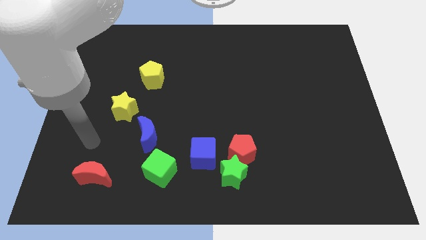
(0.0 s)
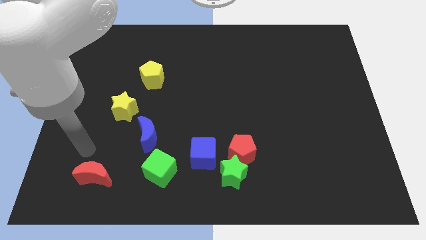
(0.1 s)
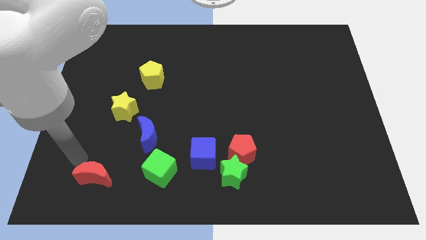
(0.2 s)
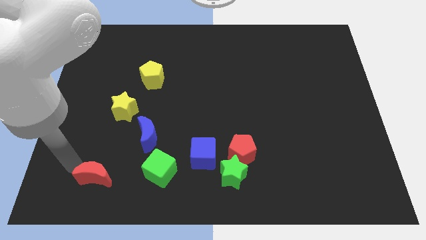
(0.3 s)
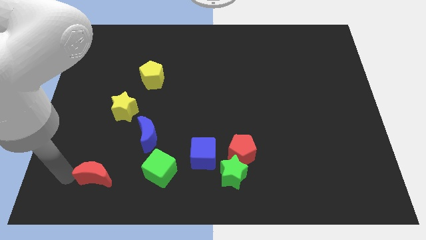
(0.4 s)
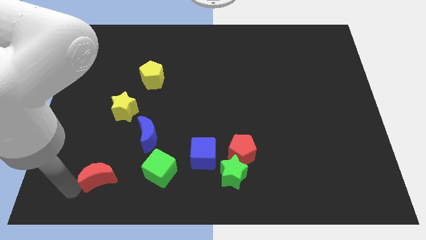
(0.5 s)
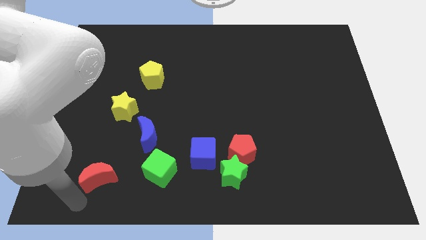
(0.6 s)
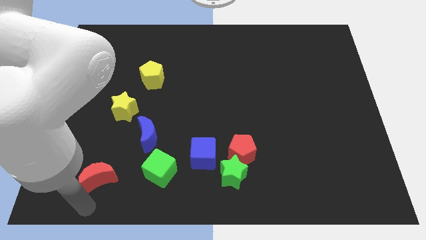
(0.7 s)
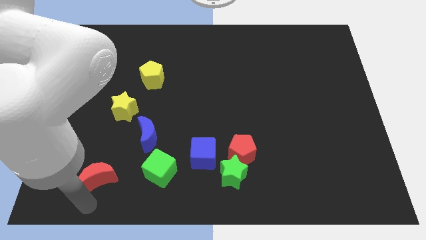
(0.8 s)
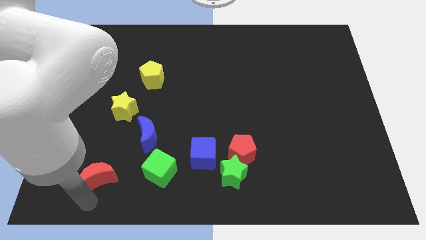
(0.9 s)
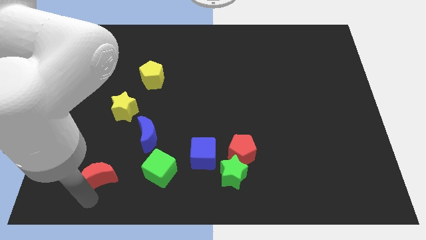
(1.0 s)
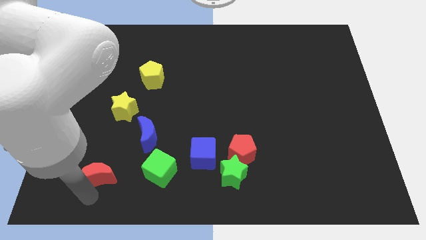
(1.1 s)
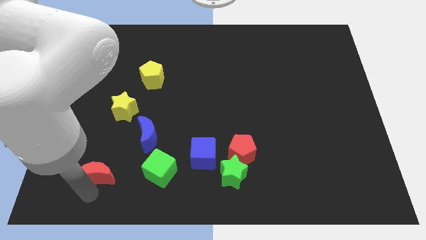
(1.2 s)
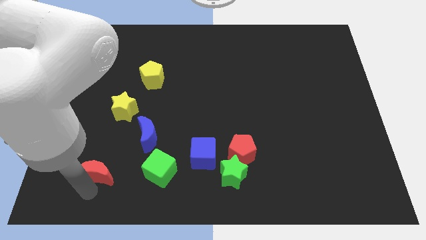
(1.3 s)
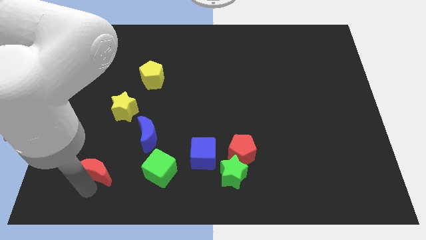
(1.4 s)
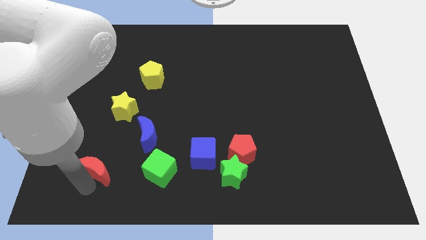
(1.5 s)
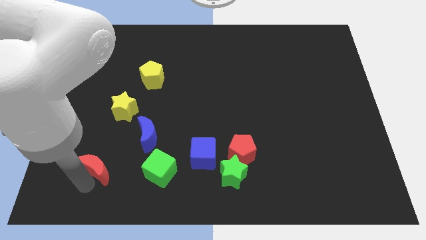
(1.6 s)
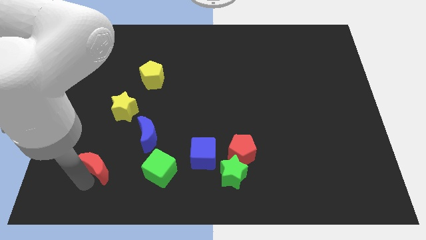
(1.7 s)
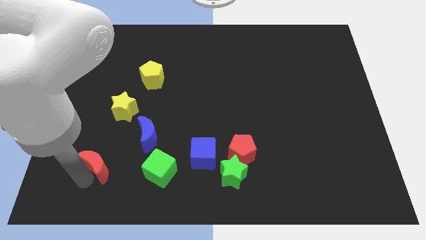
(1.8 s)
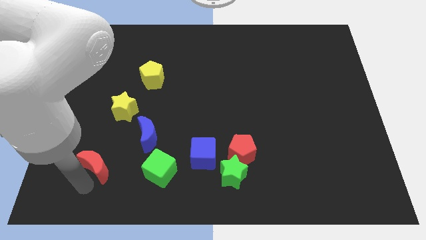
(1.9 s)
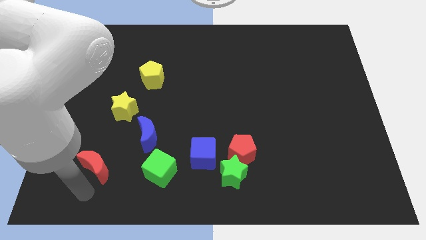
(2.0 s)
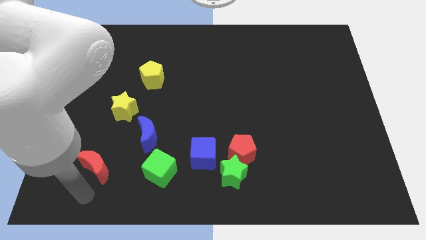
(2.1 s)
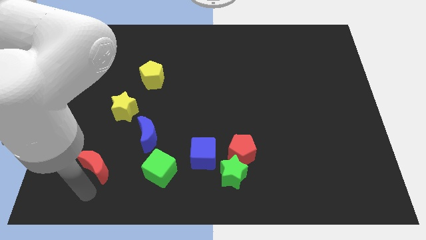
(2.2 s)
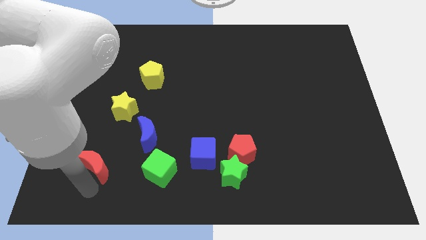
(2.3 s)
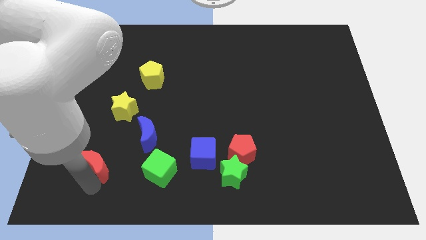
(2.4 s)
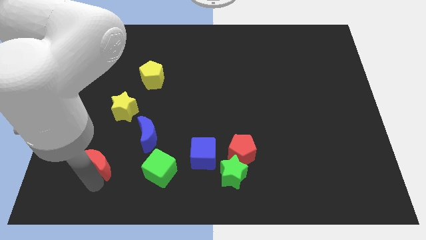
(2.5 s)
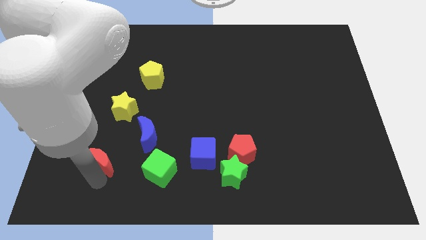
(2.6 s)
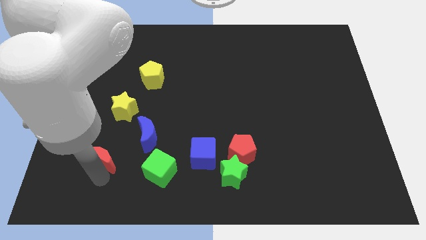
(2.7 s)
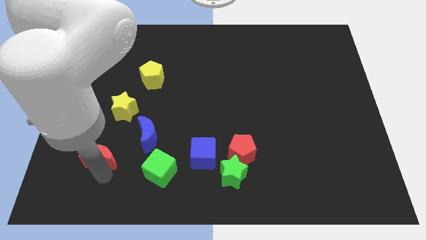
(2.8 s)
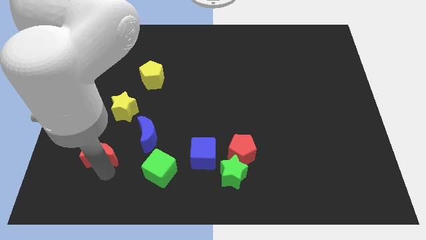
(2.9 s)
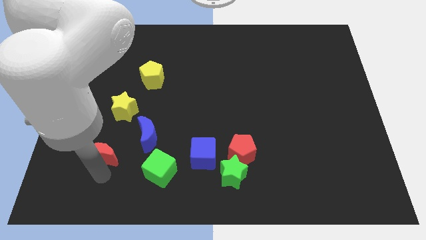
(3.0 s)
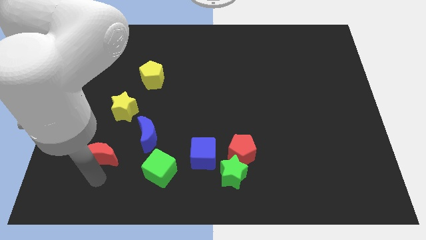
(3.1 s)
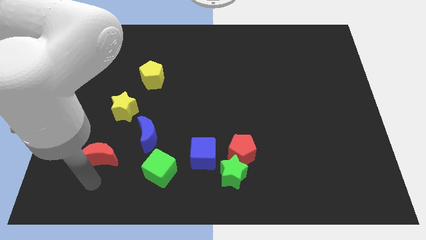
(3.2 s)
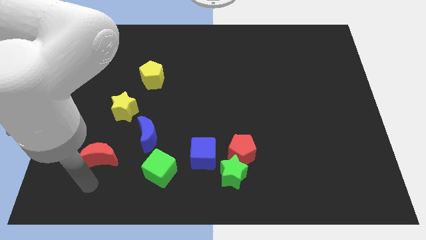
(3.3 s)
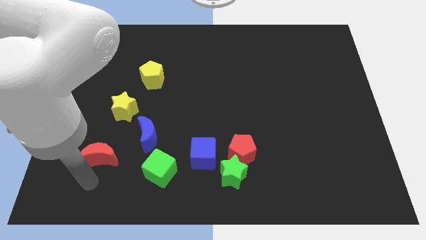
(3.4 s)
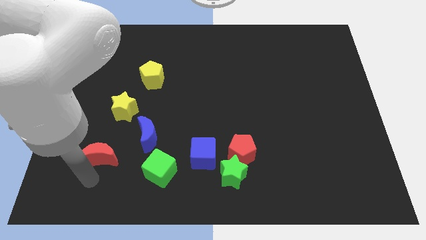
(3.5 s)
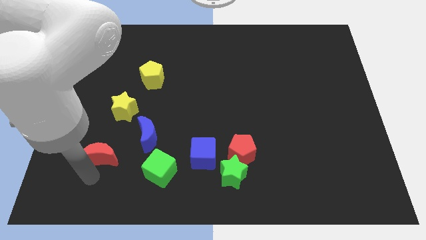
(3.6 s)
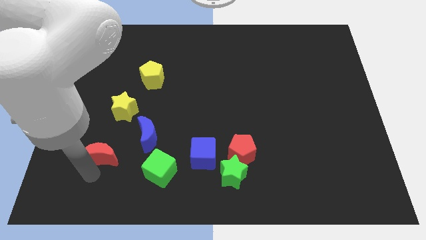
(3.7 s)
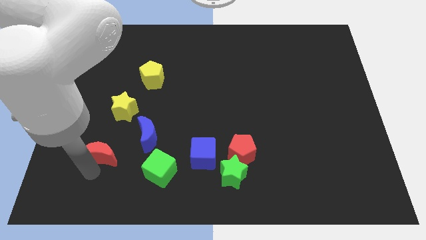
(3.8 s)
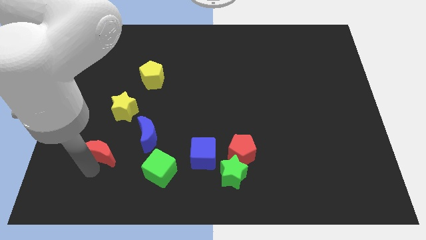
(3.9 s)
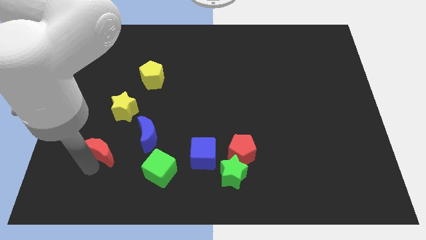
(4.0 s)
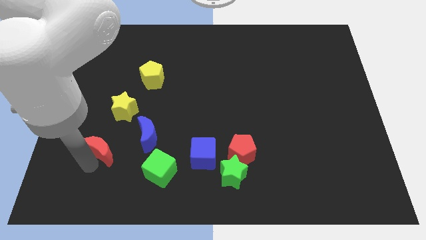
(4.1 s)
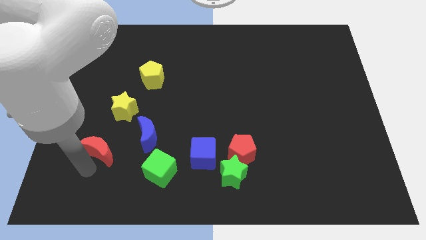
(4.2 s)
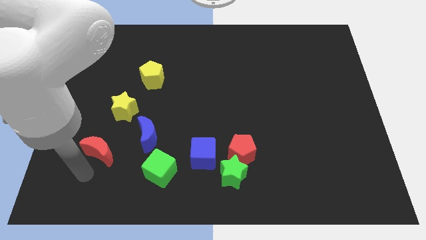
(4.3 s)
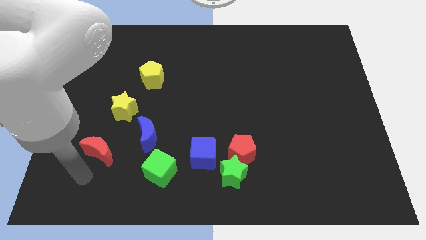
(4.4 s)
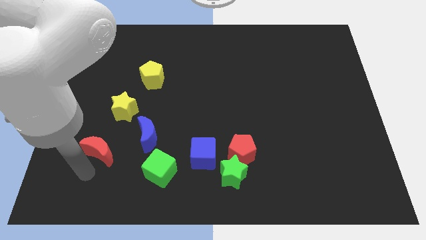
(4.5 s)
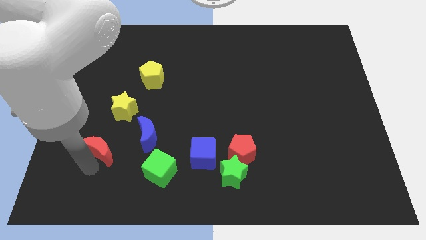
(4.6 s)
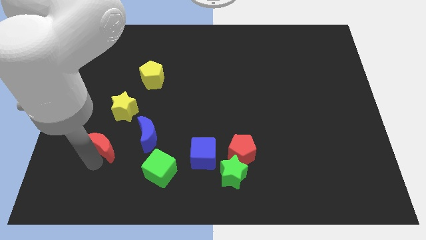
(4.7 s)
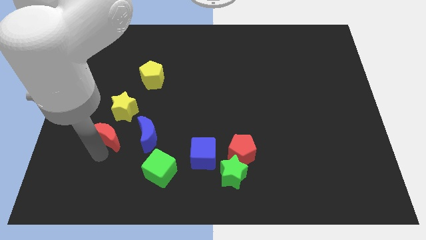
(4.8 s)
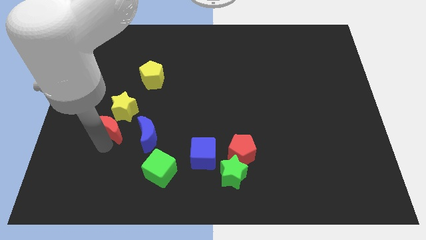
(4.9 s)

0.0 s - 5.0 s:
push the red moon to the yellow star

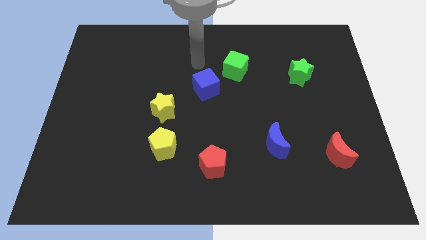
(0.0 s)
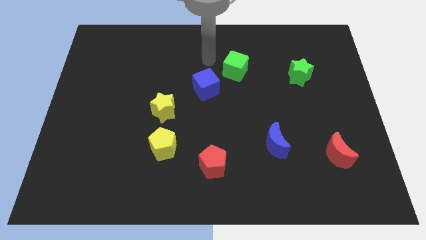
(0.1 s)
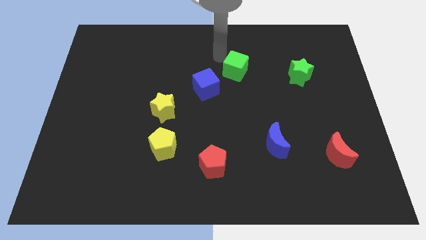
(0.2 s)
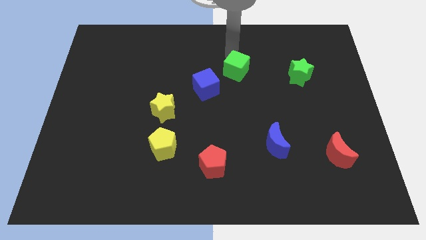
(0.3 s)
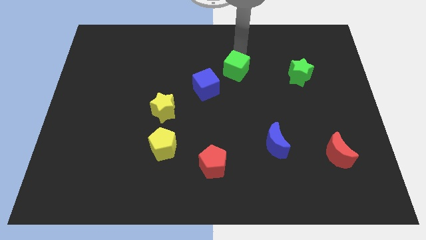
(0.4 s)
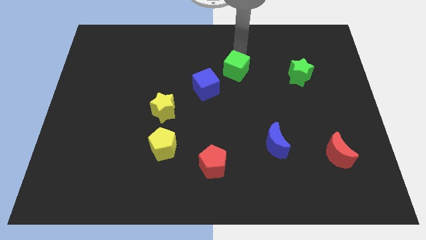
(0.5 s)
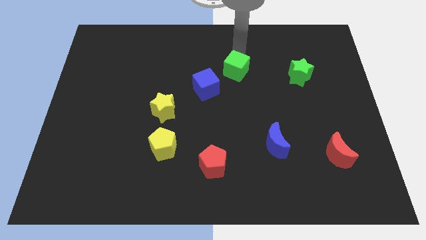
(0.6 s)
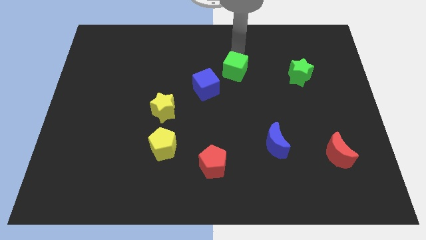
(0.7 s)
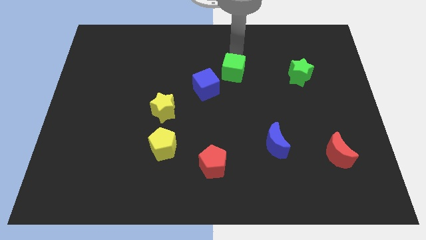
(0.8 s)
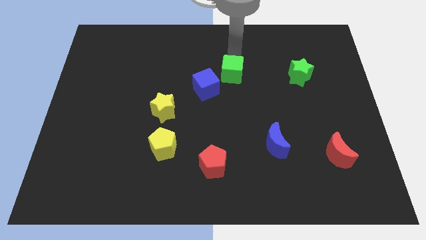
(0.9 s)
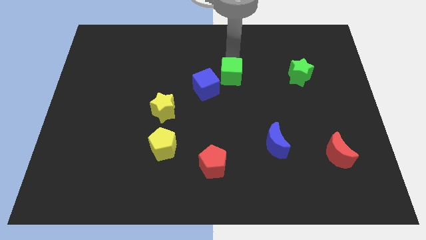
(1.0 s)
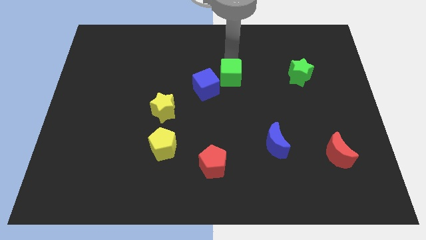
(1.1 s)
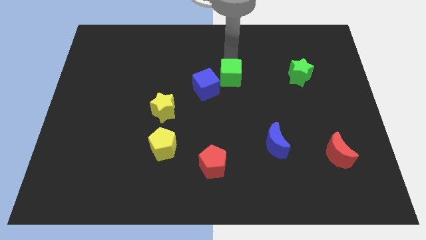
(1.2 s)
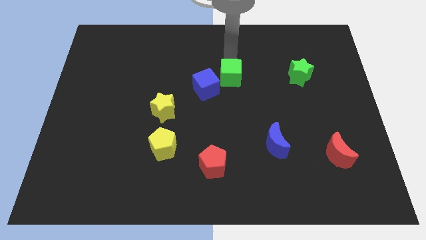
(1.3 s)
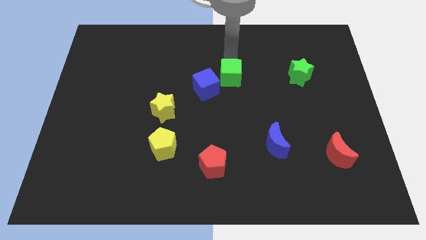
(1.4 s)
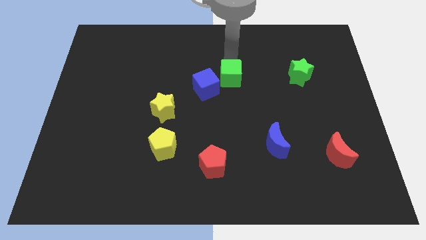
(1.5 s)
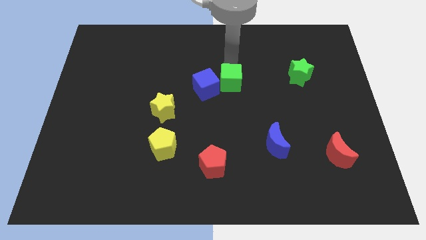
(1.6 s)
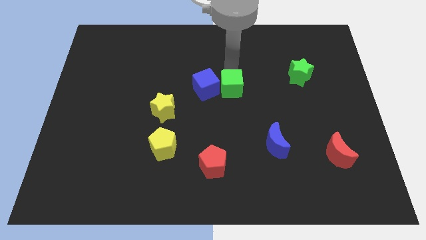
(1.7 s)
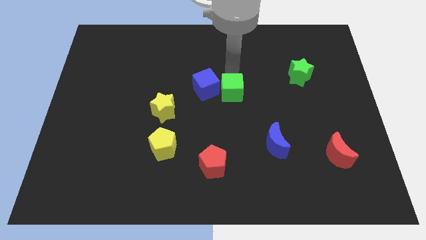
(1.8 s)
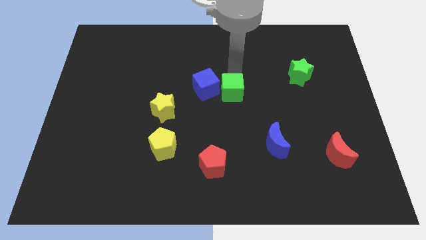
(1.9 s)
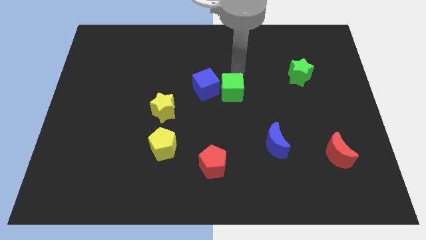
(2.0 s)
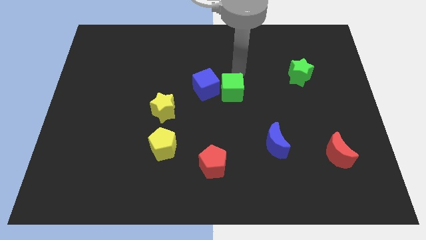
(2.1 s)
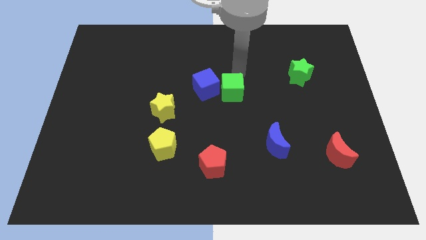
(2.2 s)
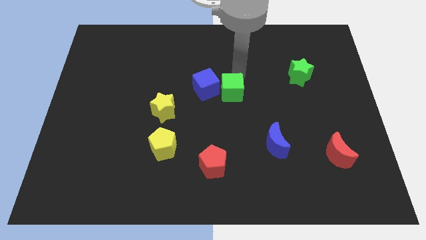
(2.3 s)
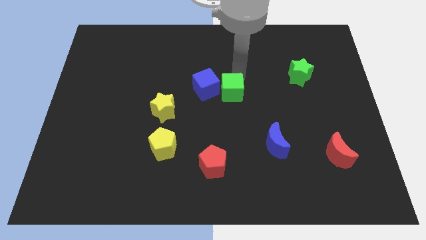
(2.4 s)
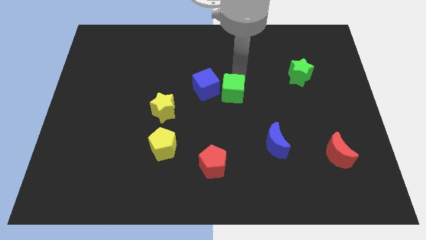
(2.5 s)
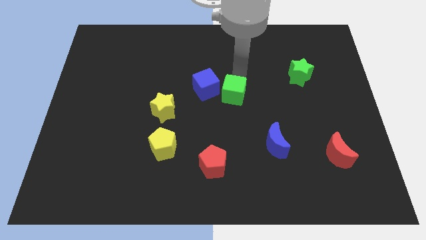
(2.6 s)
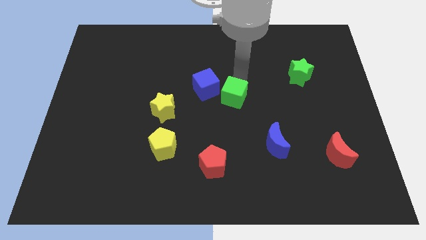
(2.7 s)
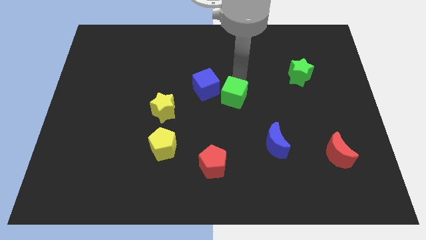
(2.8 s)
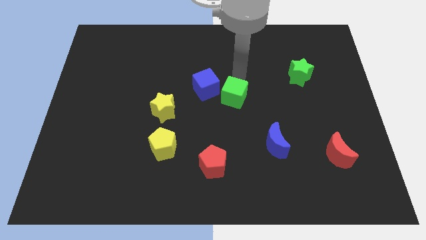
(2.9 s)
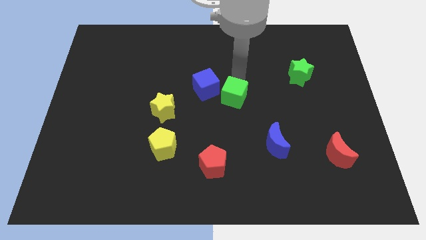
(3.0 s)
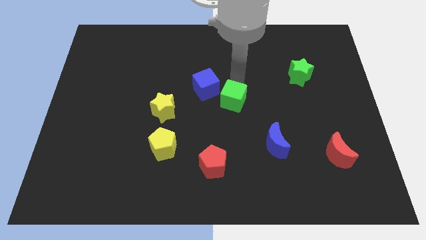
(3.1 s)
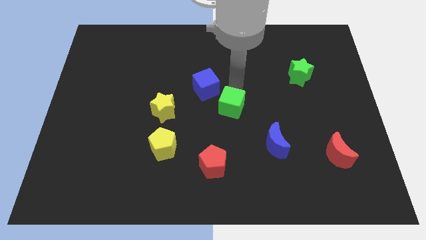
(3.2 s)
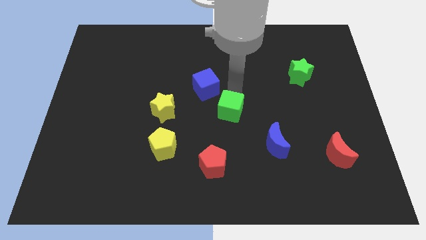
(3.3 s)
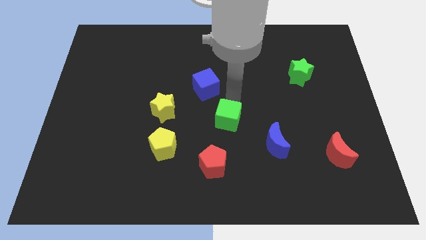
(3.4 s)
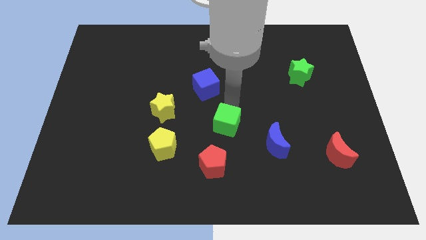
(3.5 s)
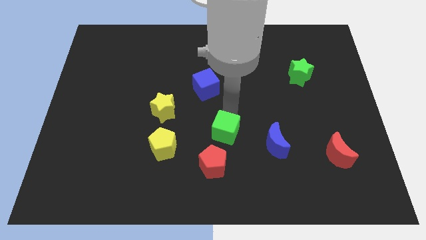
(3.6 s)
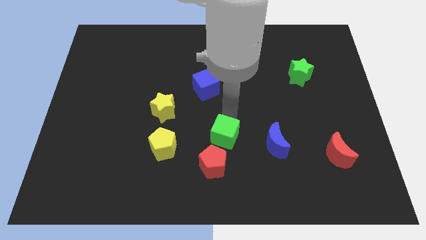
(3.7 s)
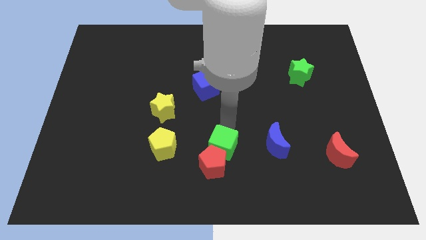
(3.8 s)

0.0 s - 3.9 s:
move the green cube to the red pentagon
